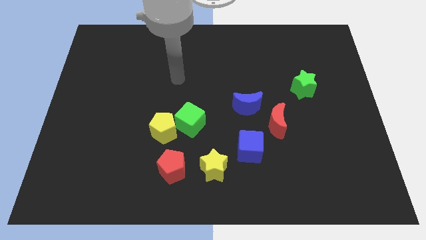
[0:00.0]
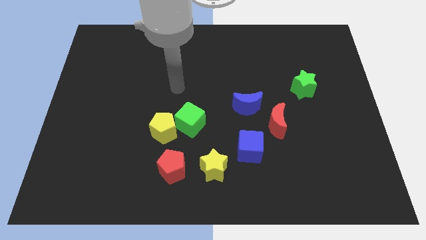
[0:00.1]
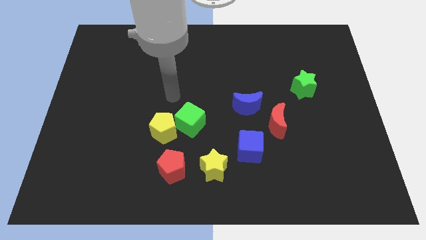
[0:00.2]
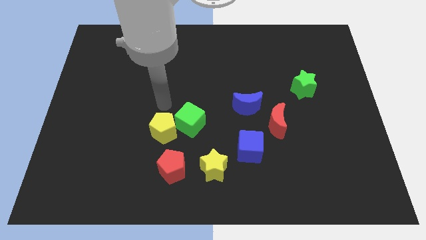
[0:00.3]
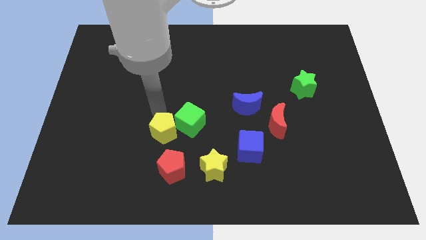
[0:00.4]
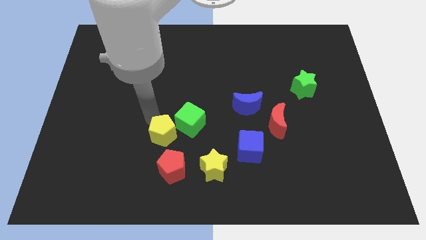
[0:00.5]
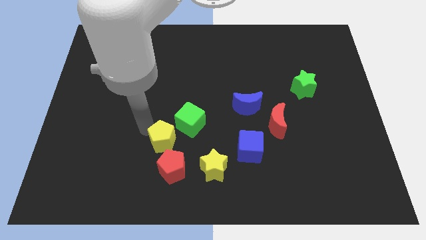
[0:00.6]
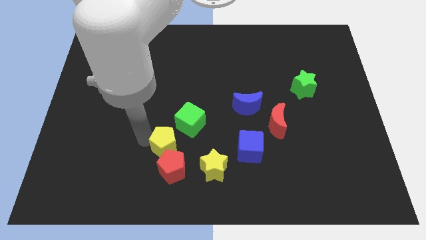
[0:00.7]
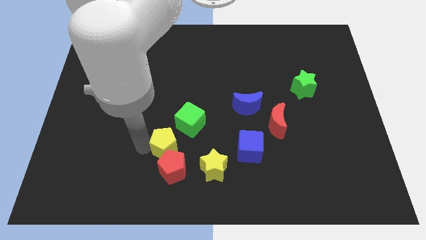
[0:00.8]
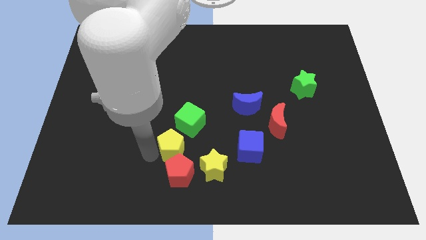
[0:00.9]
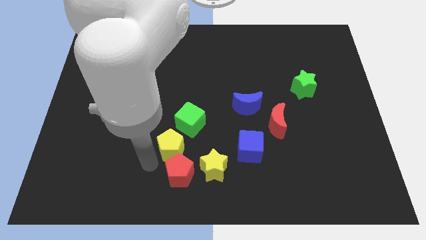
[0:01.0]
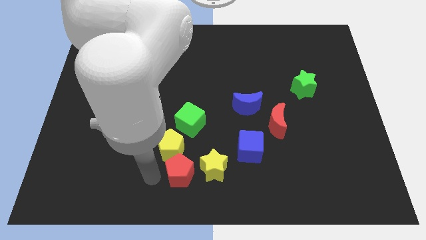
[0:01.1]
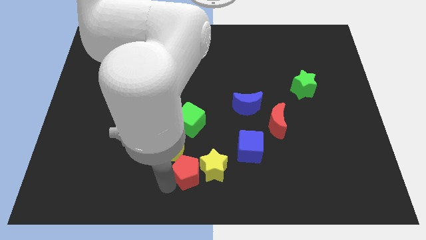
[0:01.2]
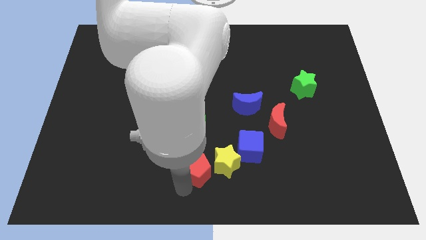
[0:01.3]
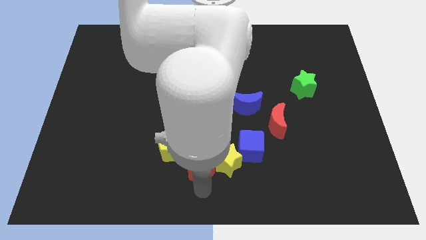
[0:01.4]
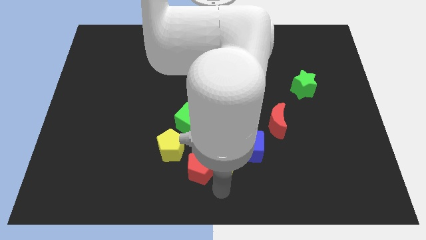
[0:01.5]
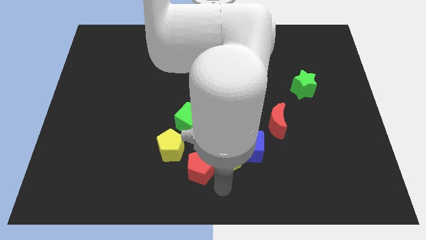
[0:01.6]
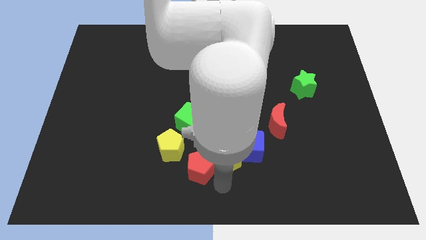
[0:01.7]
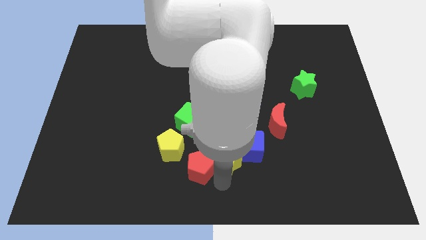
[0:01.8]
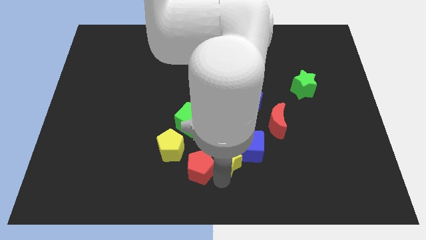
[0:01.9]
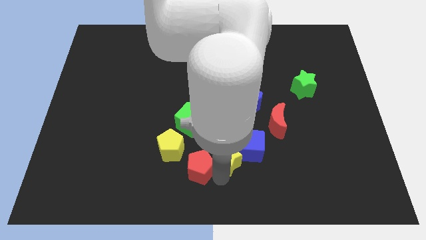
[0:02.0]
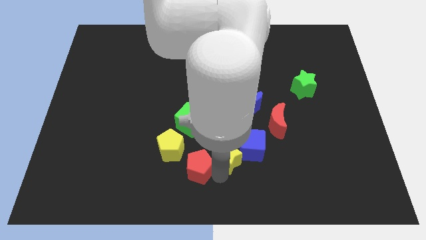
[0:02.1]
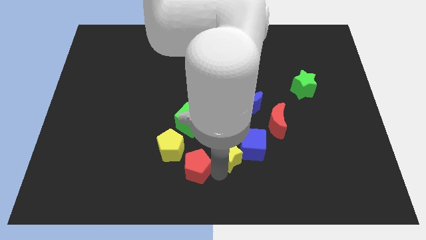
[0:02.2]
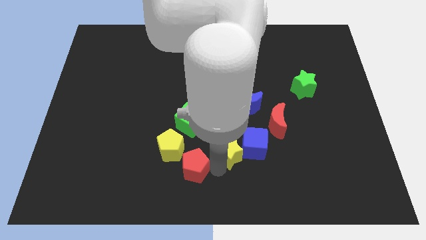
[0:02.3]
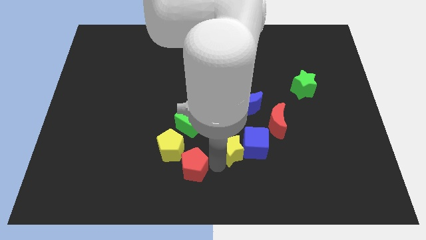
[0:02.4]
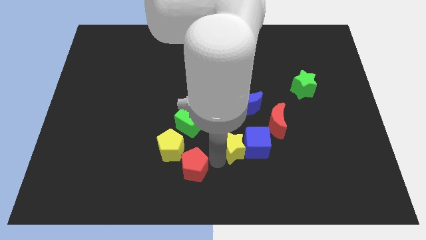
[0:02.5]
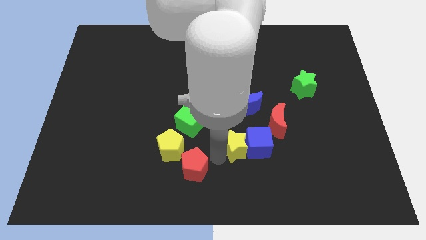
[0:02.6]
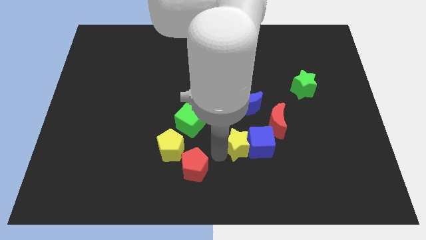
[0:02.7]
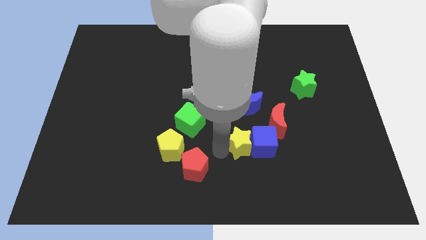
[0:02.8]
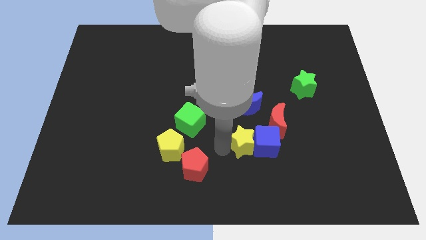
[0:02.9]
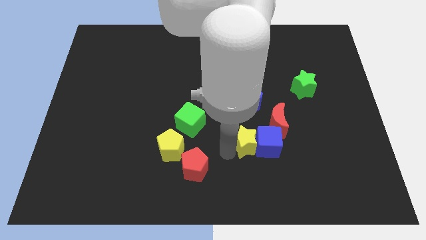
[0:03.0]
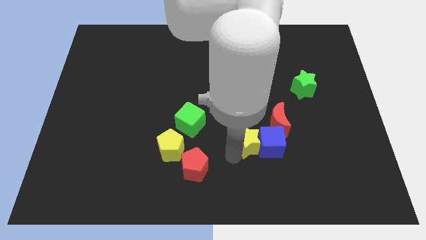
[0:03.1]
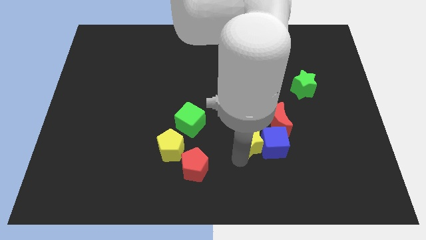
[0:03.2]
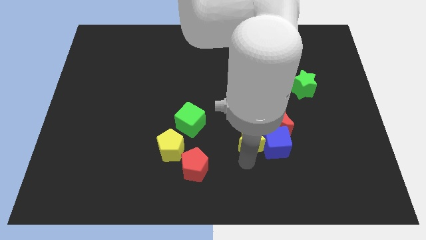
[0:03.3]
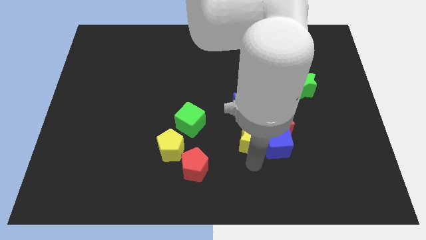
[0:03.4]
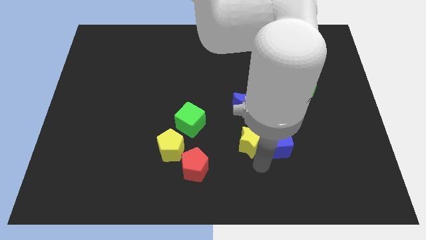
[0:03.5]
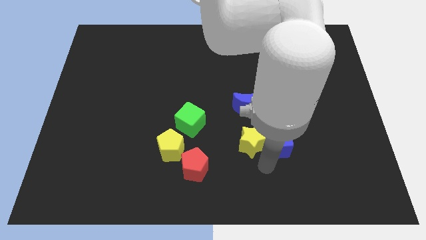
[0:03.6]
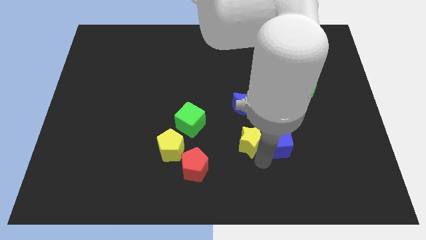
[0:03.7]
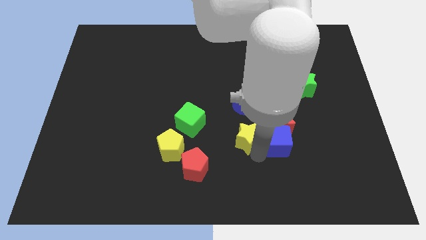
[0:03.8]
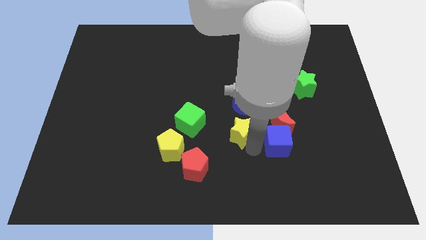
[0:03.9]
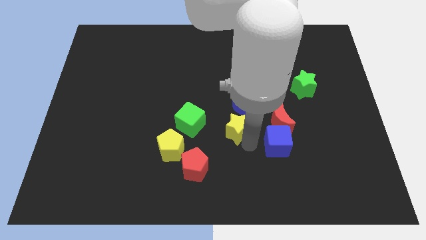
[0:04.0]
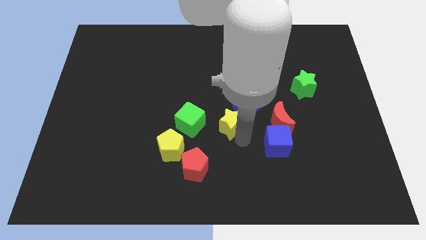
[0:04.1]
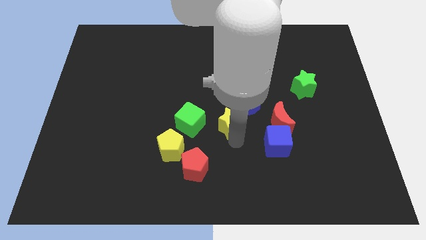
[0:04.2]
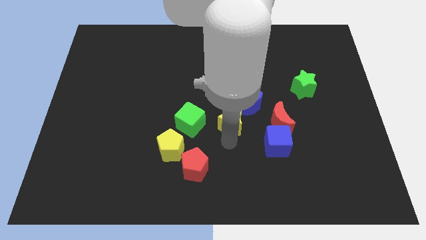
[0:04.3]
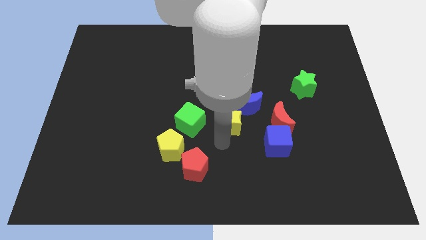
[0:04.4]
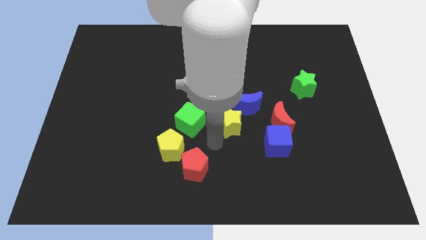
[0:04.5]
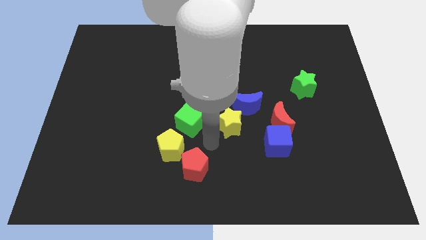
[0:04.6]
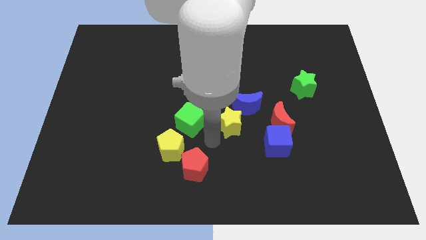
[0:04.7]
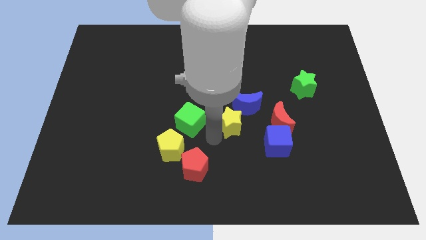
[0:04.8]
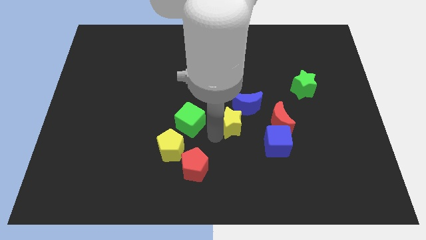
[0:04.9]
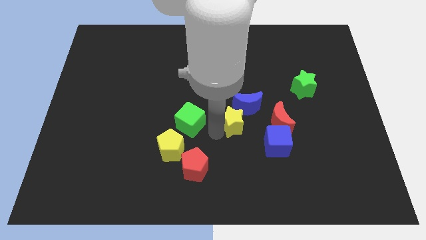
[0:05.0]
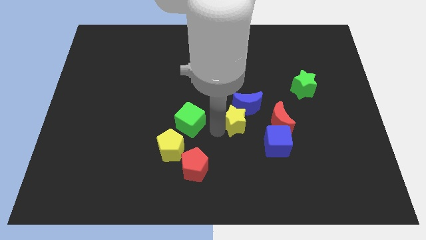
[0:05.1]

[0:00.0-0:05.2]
slide the yellow star to the blue moon

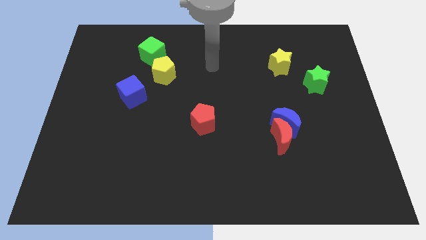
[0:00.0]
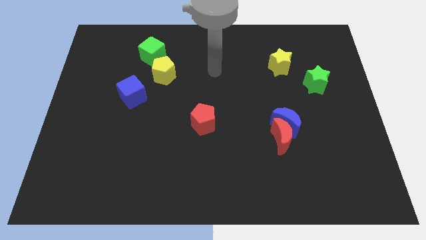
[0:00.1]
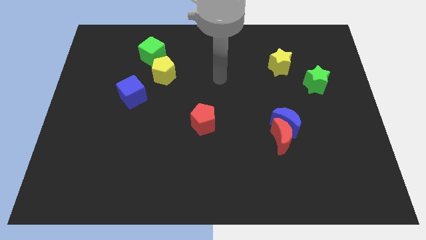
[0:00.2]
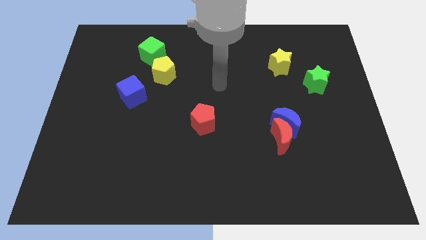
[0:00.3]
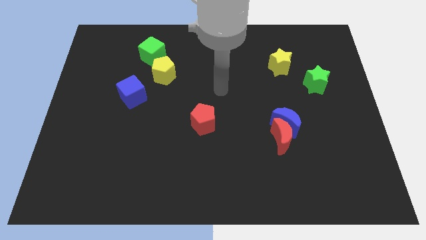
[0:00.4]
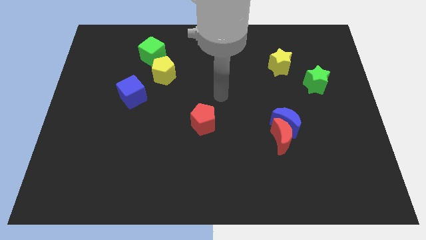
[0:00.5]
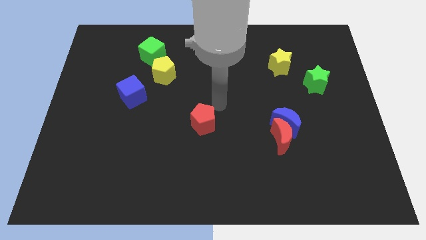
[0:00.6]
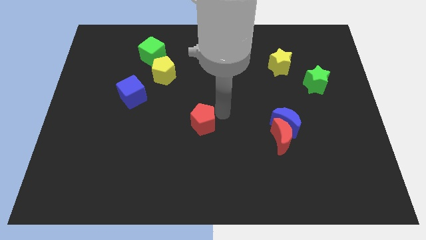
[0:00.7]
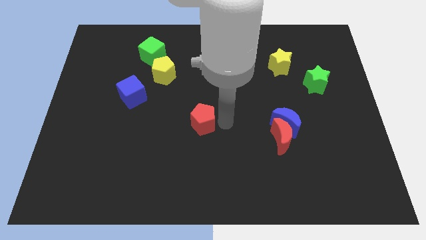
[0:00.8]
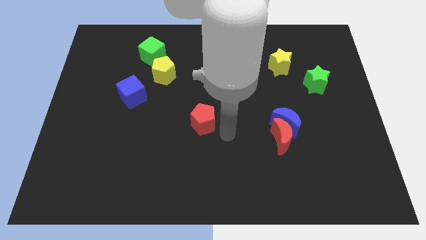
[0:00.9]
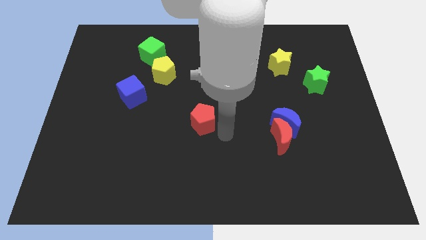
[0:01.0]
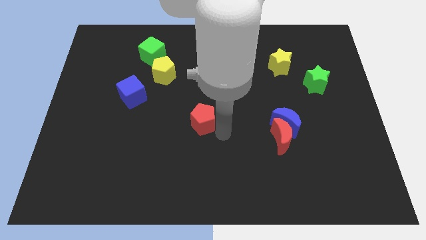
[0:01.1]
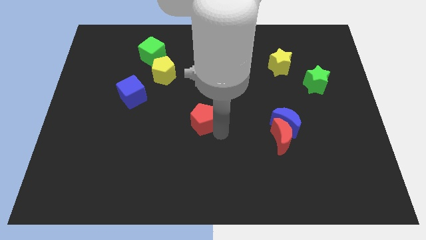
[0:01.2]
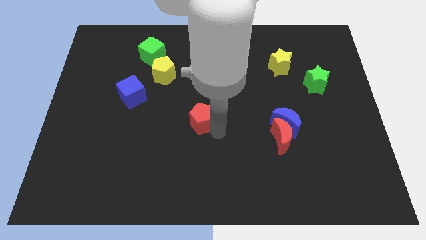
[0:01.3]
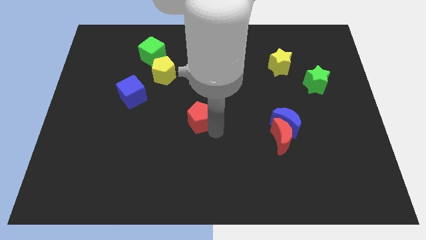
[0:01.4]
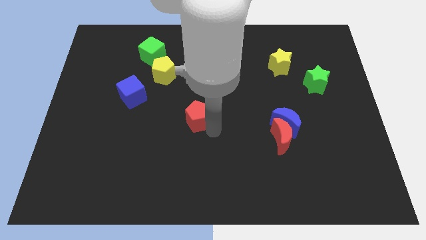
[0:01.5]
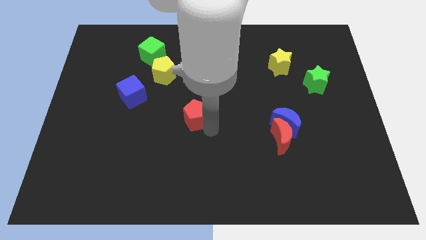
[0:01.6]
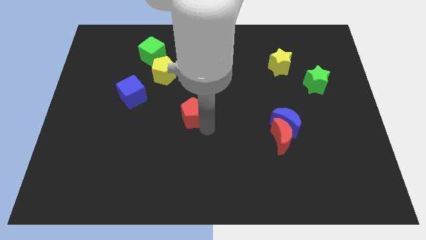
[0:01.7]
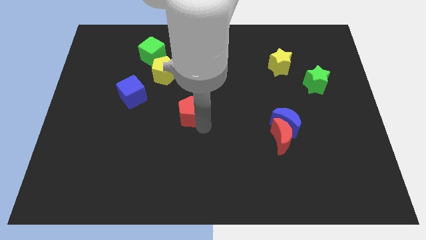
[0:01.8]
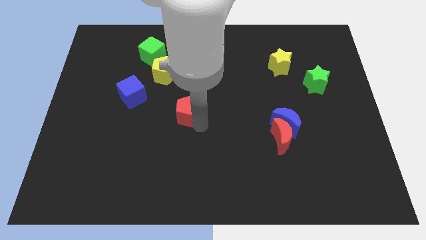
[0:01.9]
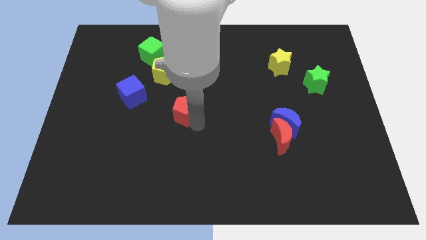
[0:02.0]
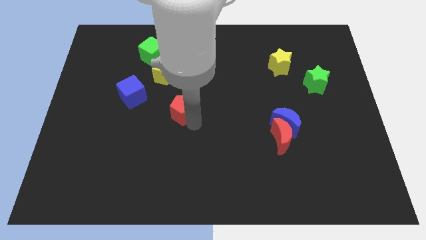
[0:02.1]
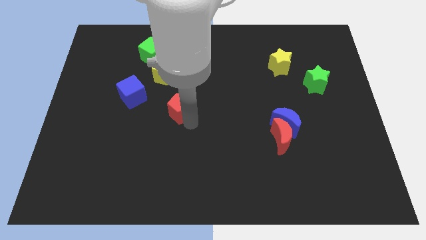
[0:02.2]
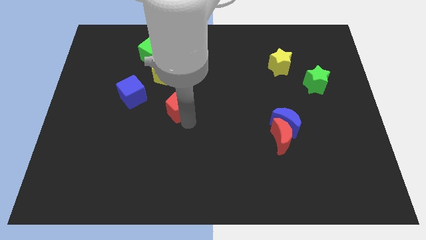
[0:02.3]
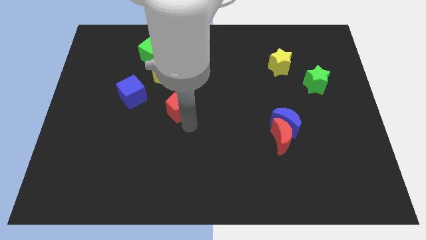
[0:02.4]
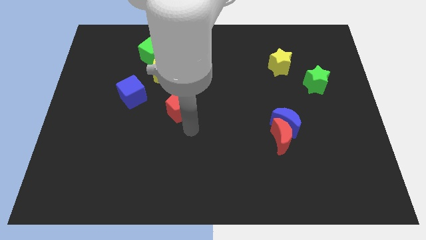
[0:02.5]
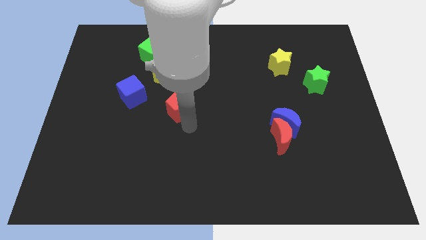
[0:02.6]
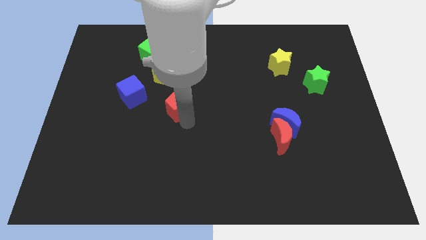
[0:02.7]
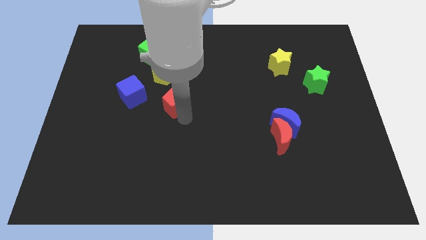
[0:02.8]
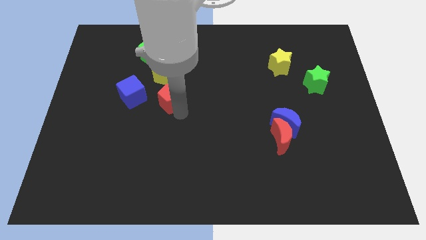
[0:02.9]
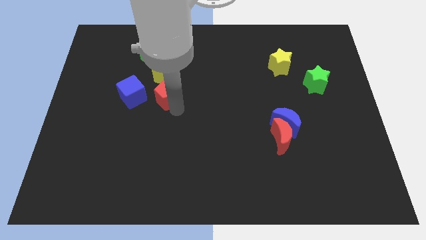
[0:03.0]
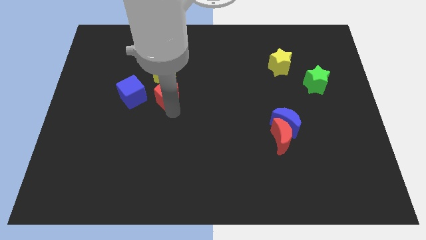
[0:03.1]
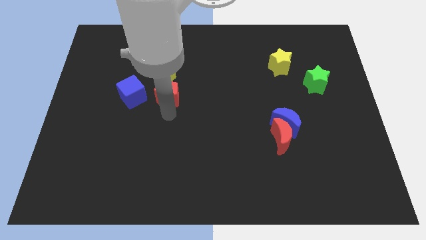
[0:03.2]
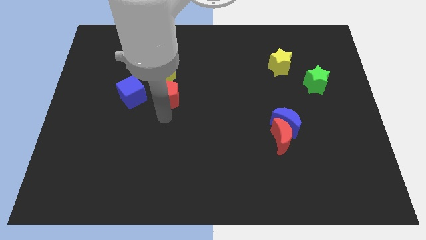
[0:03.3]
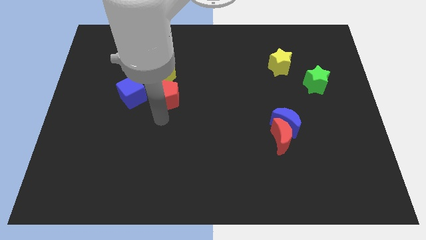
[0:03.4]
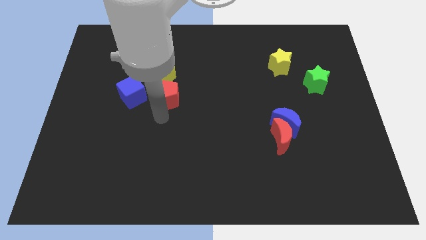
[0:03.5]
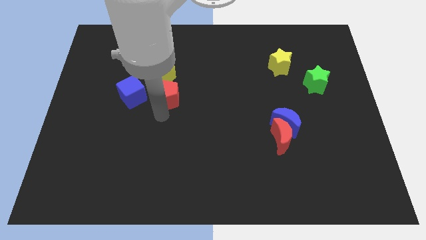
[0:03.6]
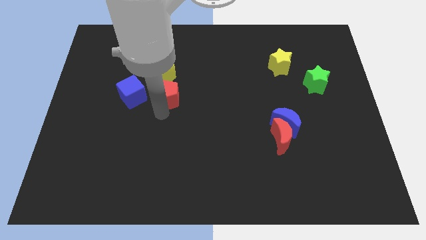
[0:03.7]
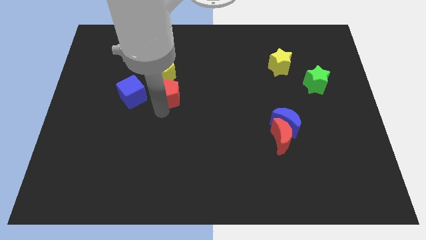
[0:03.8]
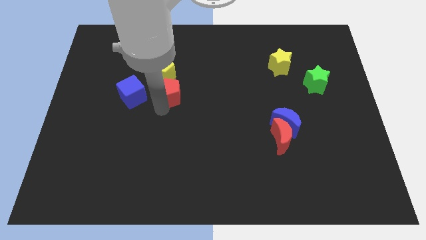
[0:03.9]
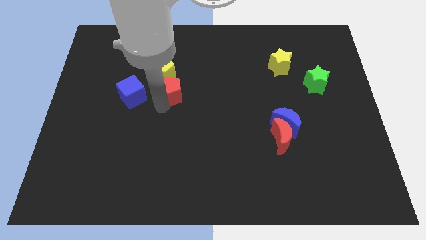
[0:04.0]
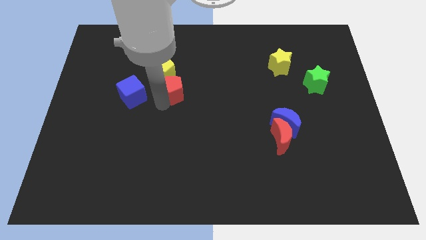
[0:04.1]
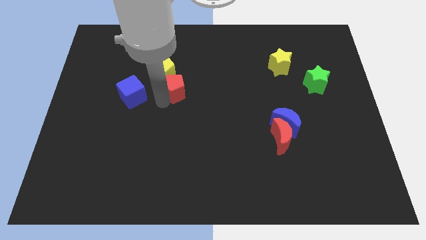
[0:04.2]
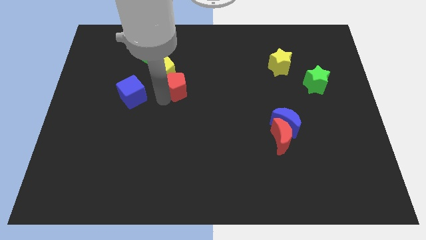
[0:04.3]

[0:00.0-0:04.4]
move the red pentagon towards the yellow pentagon
